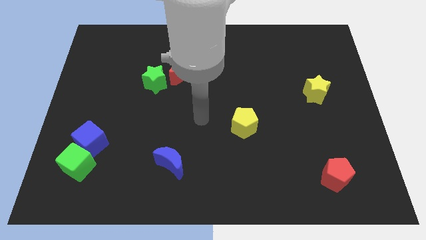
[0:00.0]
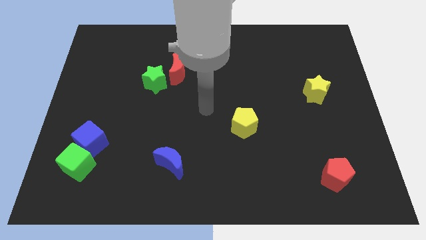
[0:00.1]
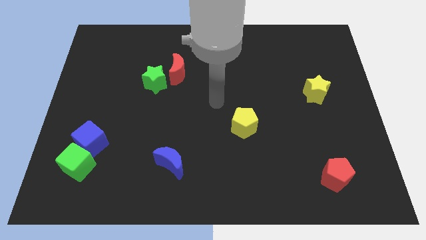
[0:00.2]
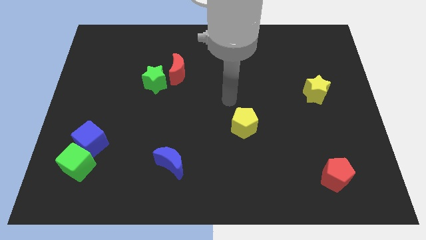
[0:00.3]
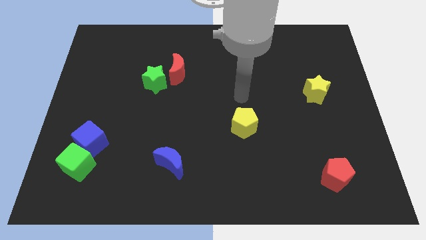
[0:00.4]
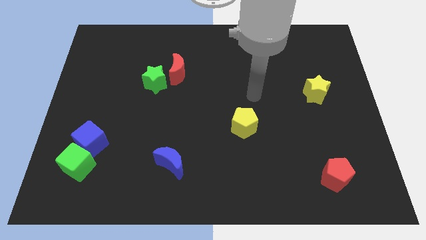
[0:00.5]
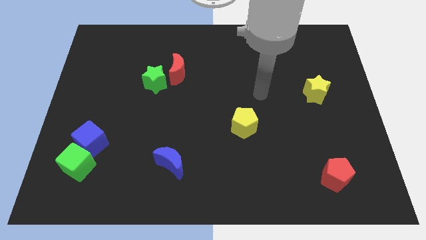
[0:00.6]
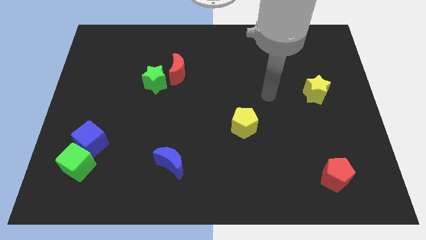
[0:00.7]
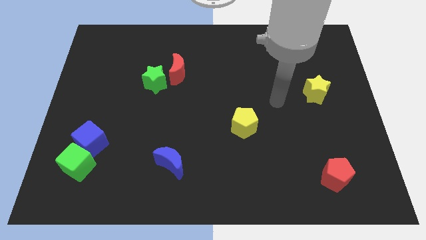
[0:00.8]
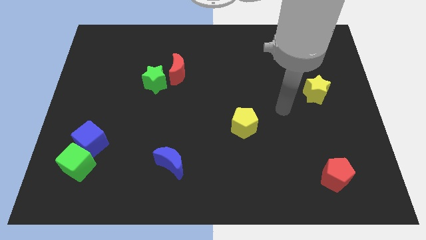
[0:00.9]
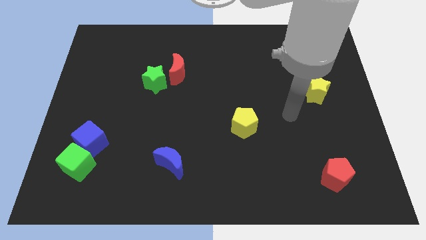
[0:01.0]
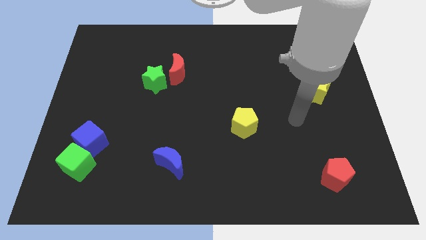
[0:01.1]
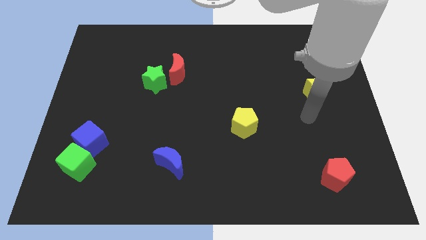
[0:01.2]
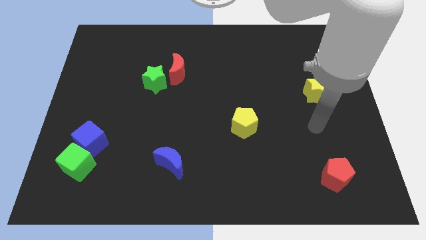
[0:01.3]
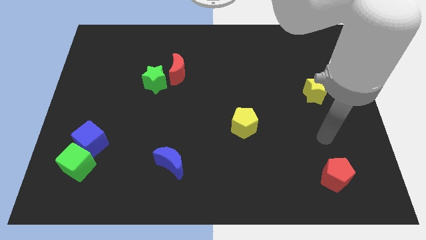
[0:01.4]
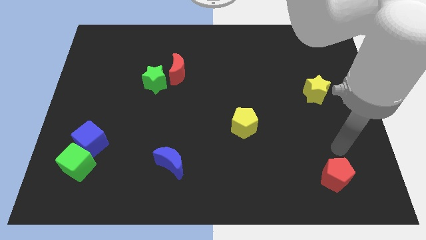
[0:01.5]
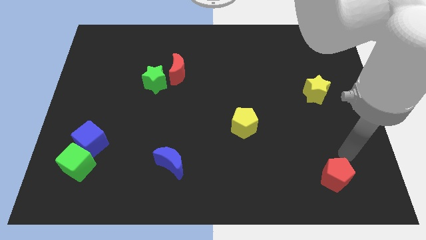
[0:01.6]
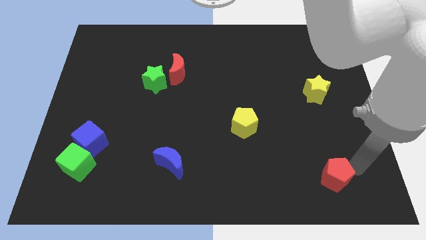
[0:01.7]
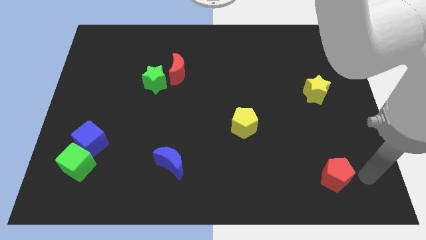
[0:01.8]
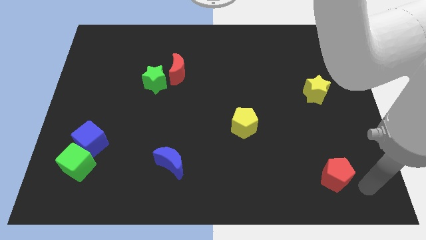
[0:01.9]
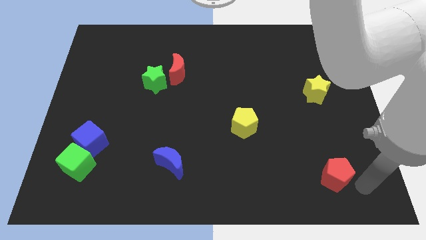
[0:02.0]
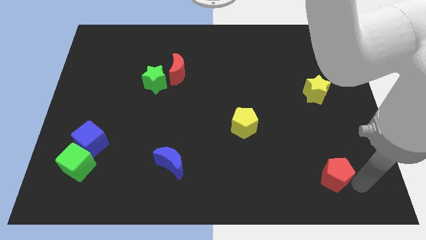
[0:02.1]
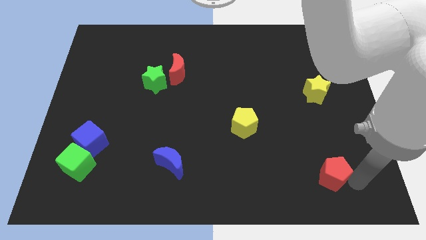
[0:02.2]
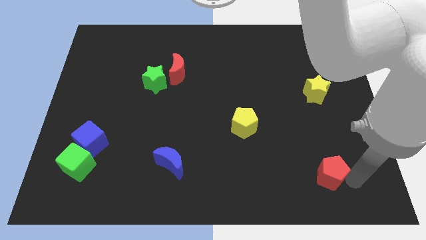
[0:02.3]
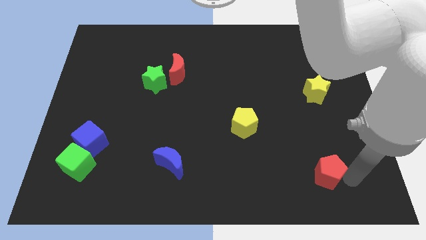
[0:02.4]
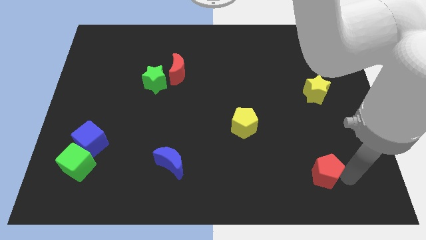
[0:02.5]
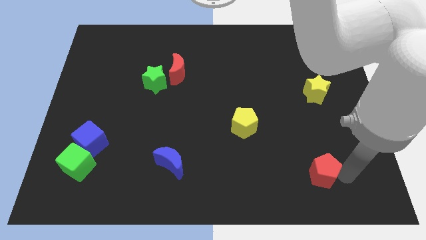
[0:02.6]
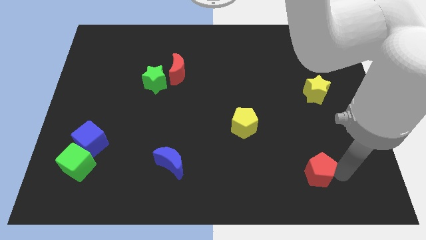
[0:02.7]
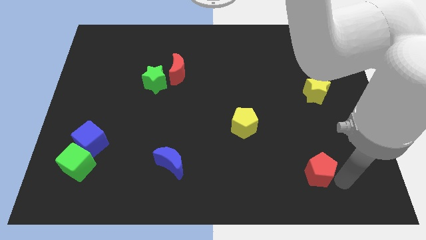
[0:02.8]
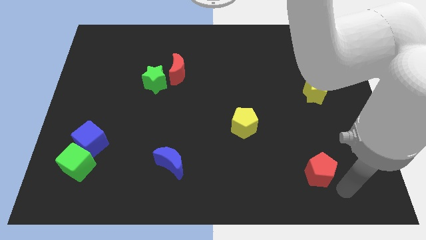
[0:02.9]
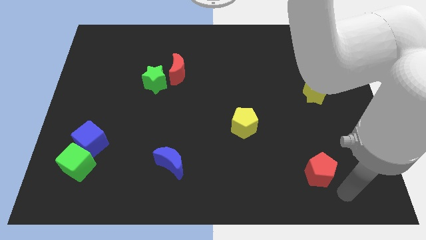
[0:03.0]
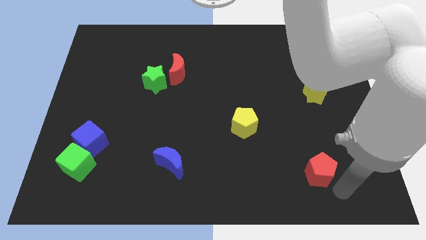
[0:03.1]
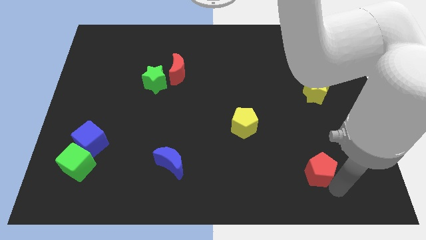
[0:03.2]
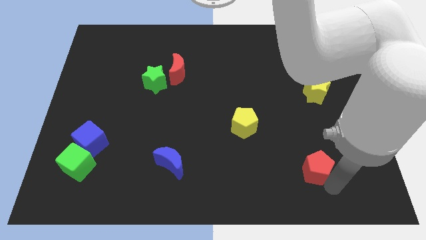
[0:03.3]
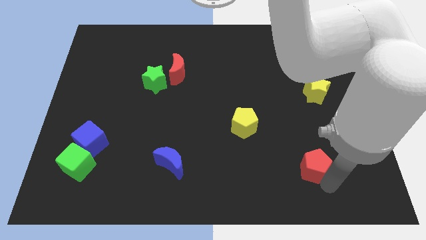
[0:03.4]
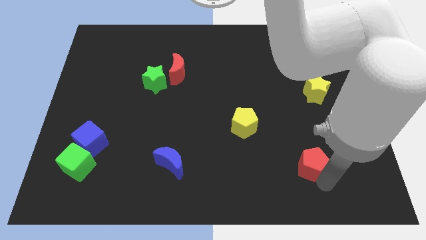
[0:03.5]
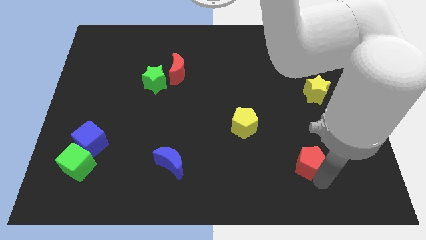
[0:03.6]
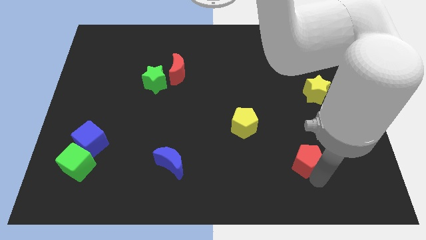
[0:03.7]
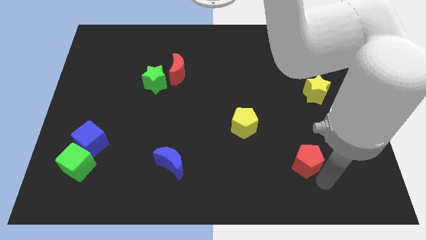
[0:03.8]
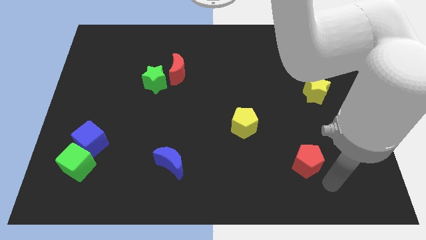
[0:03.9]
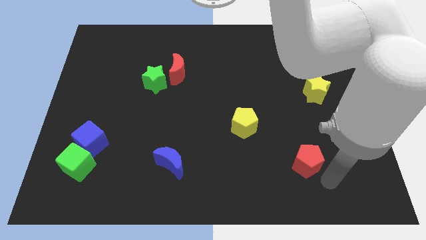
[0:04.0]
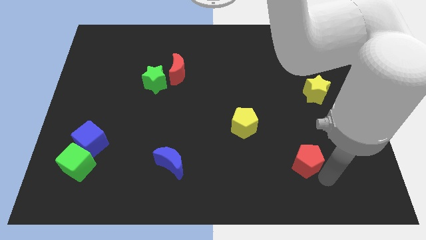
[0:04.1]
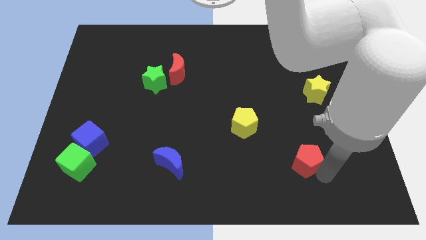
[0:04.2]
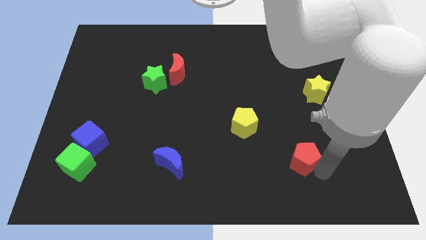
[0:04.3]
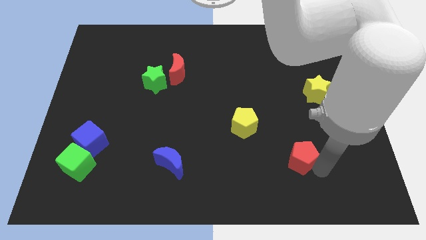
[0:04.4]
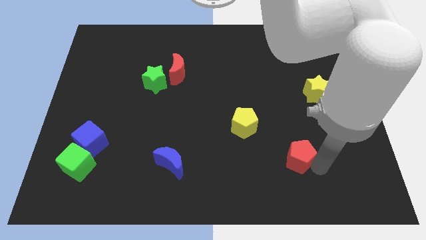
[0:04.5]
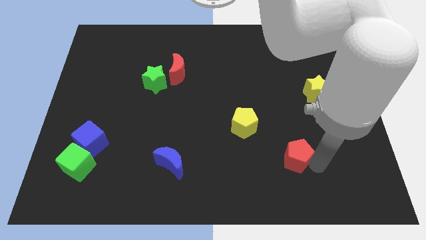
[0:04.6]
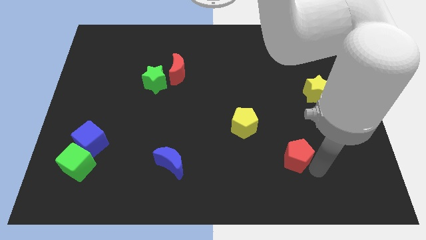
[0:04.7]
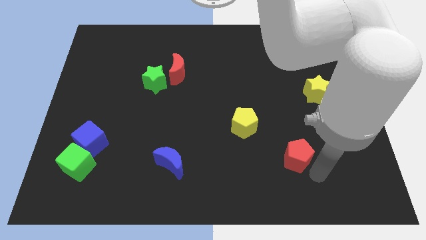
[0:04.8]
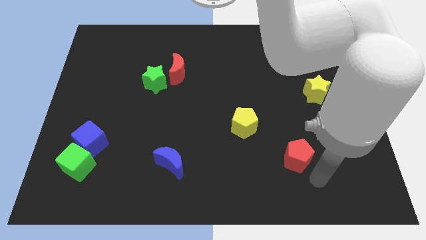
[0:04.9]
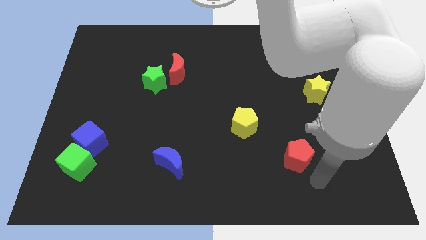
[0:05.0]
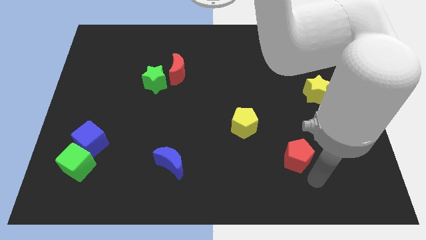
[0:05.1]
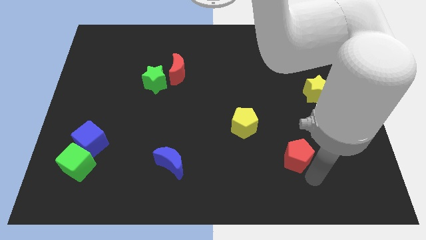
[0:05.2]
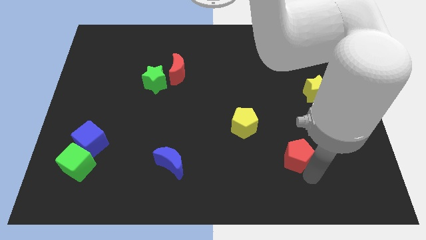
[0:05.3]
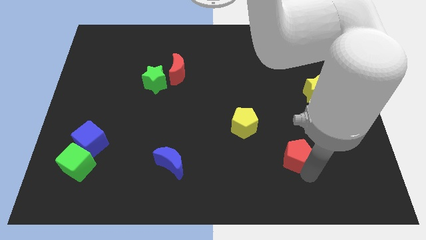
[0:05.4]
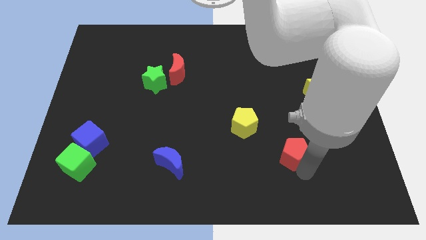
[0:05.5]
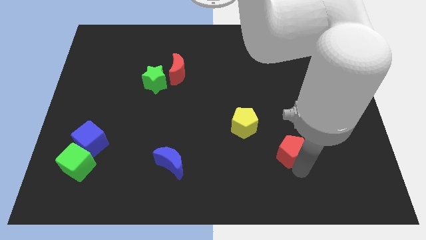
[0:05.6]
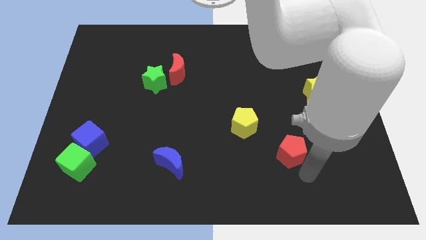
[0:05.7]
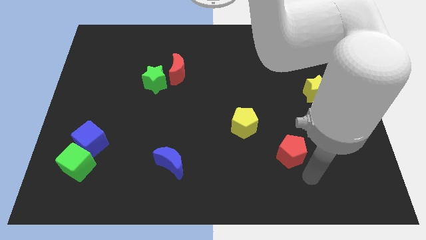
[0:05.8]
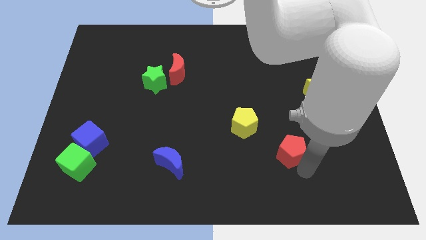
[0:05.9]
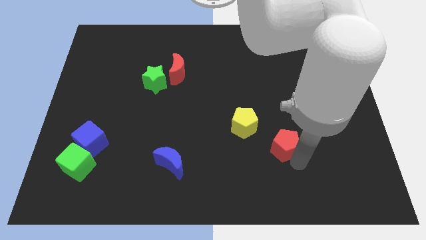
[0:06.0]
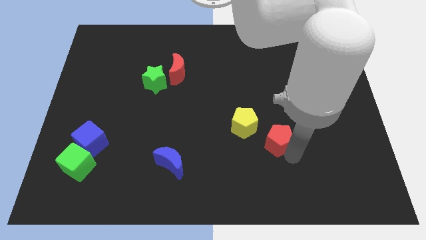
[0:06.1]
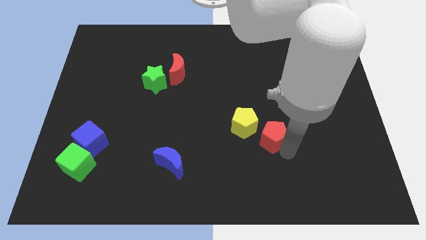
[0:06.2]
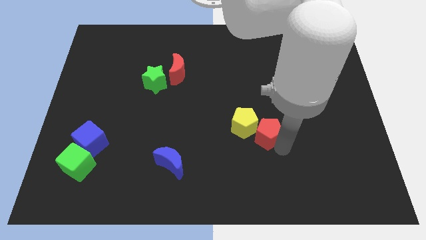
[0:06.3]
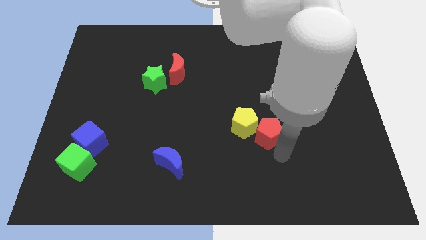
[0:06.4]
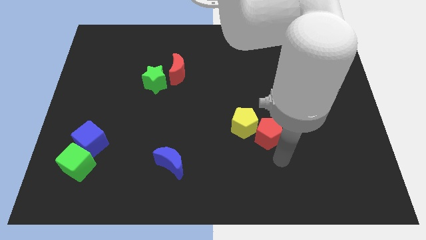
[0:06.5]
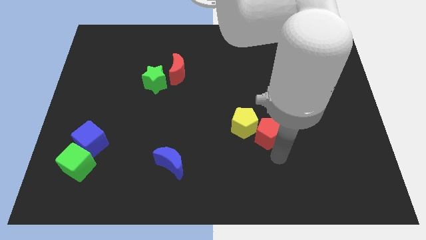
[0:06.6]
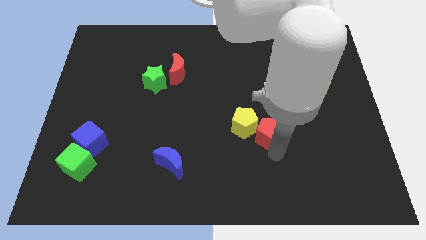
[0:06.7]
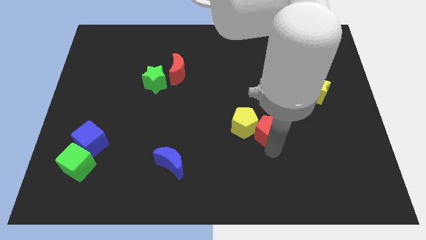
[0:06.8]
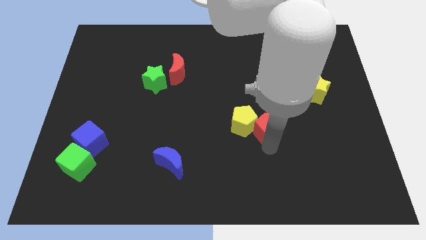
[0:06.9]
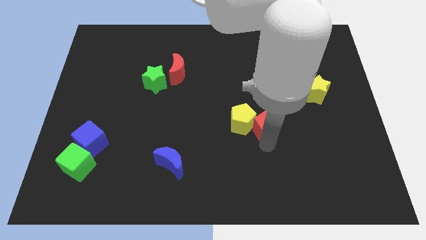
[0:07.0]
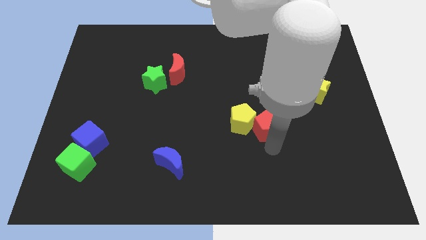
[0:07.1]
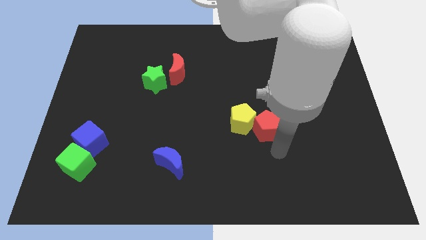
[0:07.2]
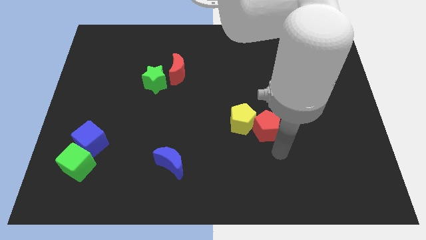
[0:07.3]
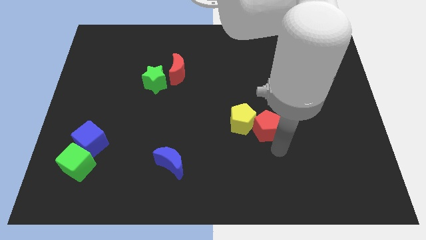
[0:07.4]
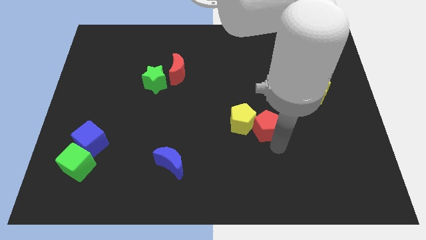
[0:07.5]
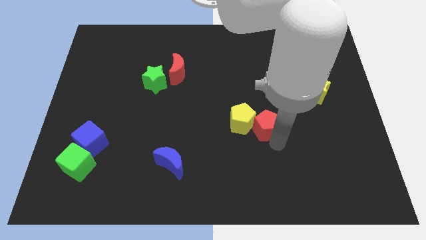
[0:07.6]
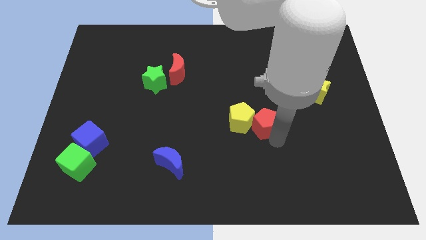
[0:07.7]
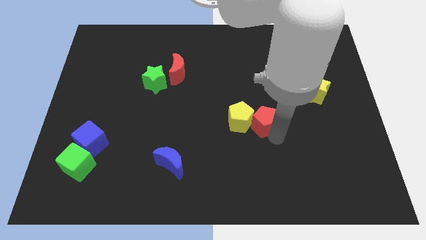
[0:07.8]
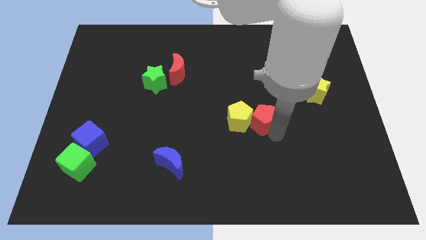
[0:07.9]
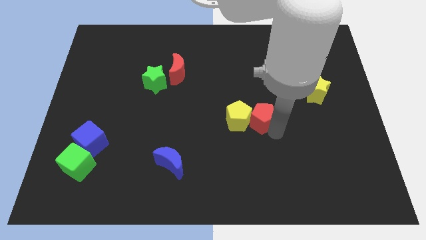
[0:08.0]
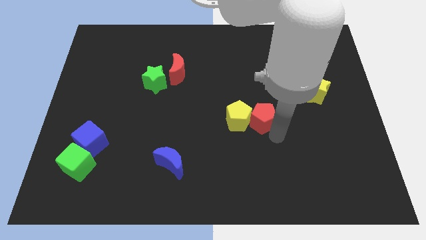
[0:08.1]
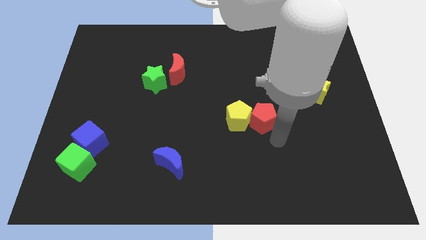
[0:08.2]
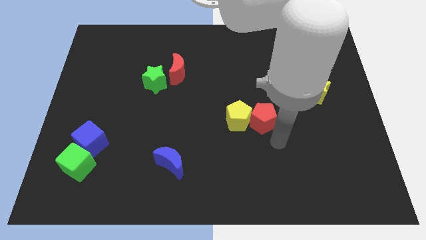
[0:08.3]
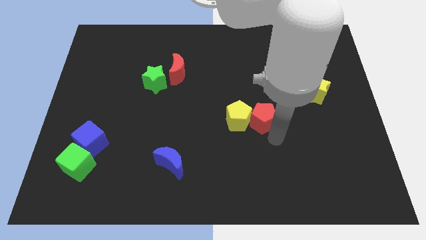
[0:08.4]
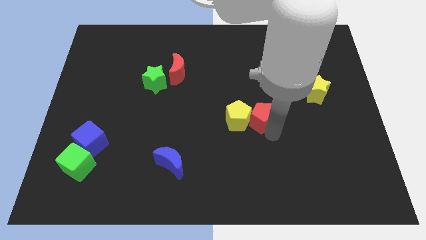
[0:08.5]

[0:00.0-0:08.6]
slide the red pentagon to the center of the board
